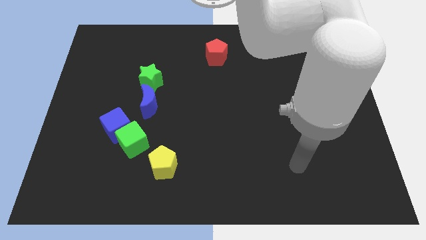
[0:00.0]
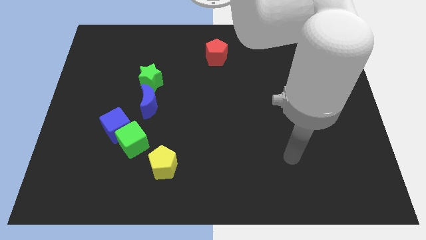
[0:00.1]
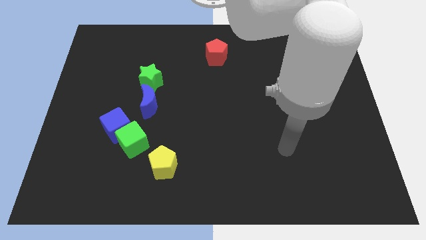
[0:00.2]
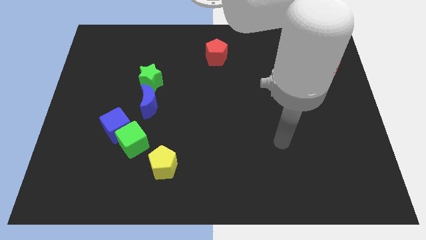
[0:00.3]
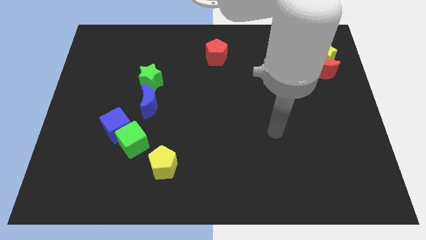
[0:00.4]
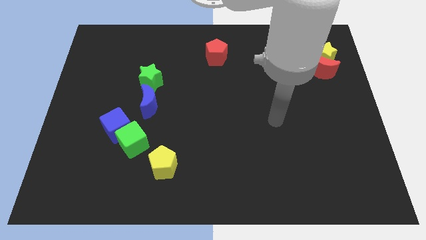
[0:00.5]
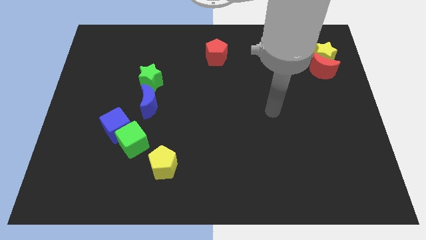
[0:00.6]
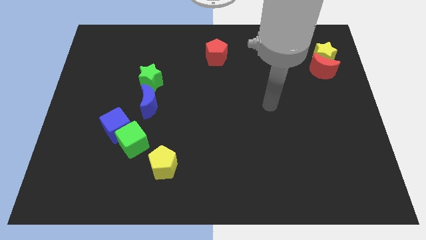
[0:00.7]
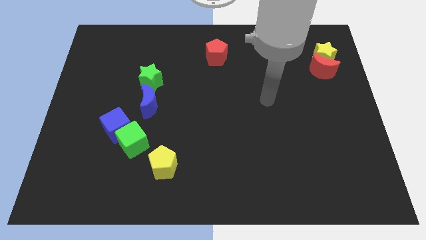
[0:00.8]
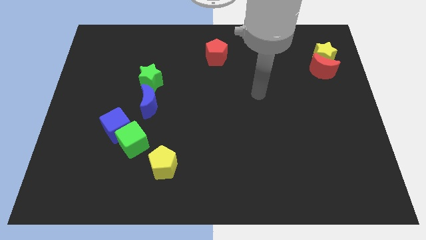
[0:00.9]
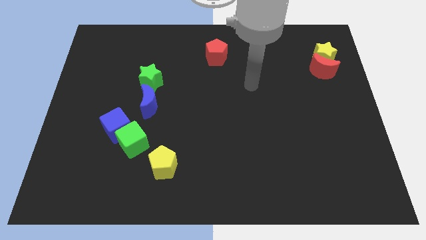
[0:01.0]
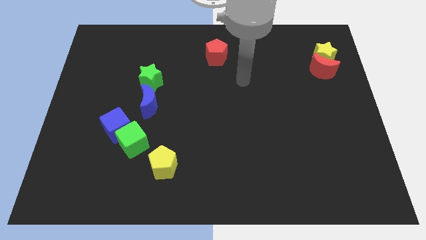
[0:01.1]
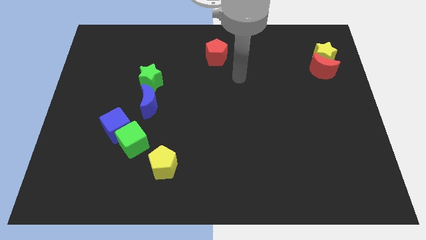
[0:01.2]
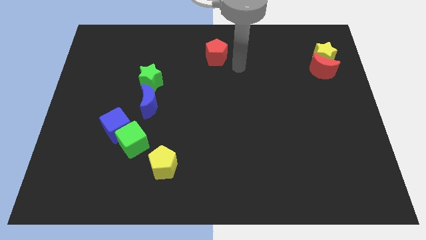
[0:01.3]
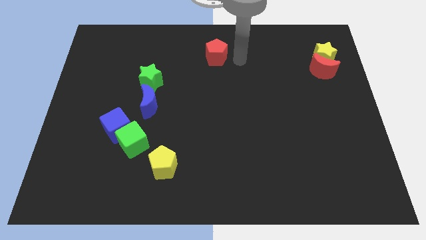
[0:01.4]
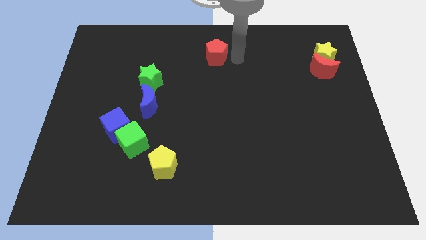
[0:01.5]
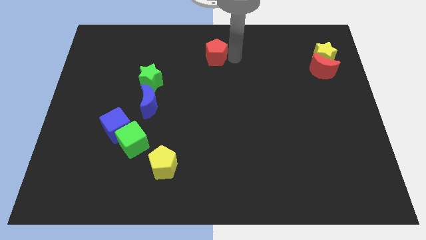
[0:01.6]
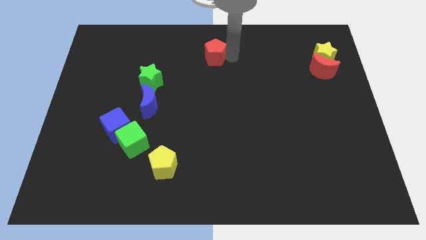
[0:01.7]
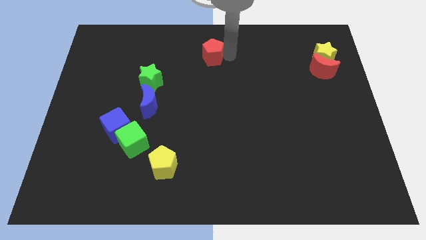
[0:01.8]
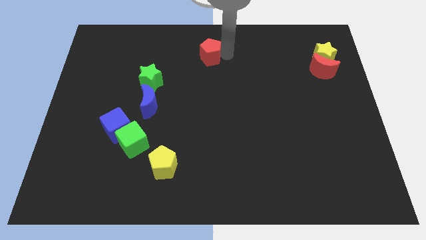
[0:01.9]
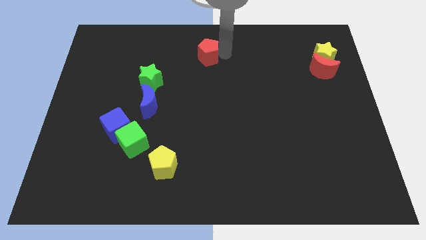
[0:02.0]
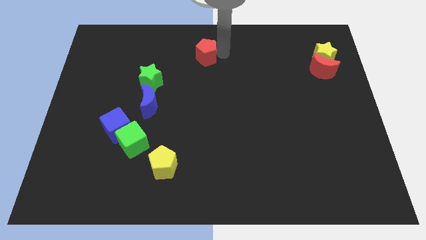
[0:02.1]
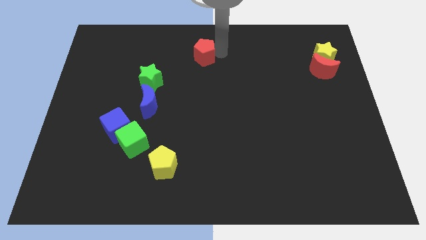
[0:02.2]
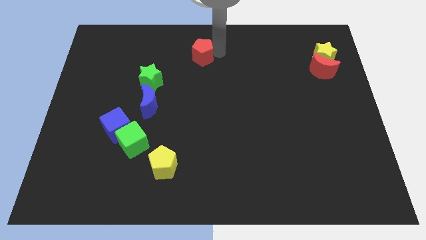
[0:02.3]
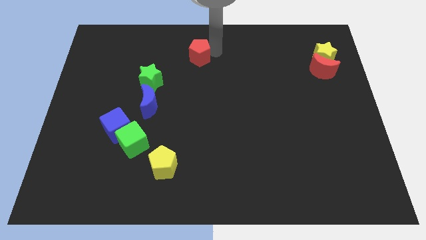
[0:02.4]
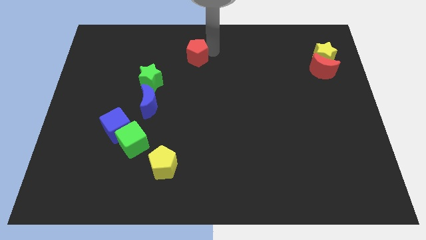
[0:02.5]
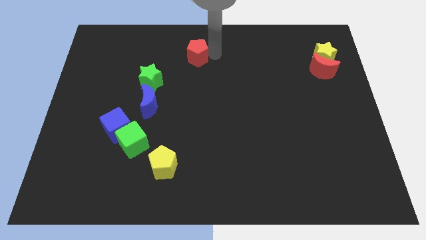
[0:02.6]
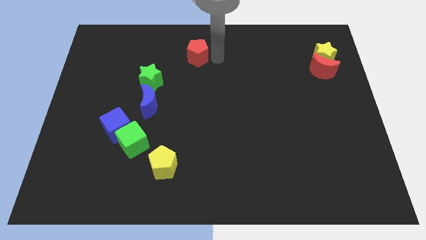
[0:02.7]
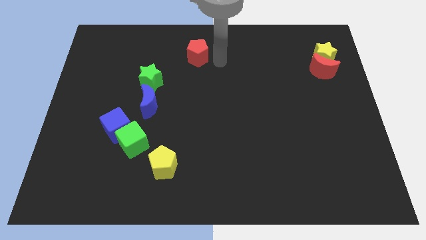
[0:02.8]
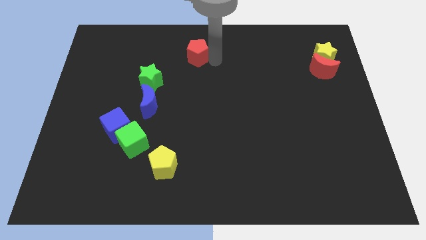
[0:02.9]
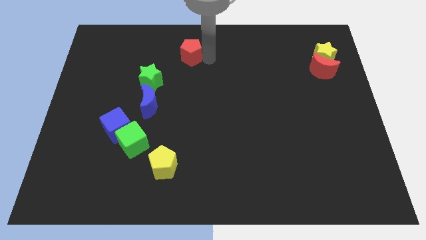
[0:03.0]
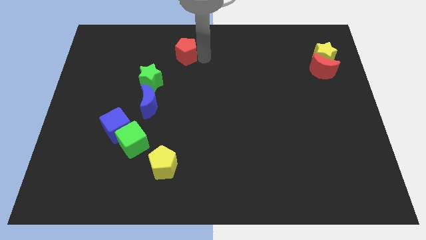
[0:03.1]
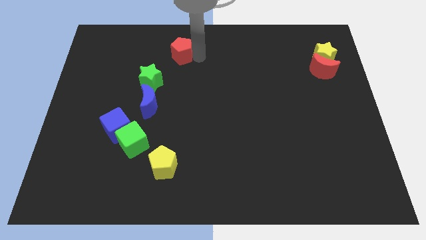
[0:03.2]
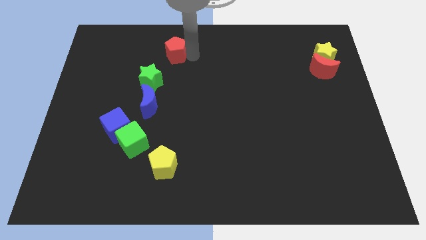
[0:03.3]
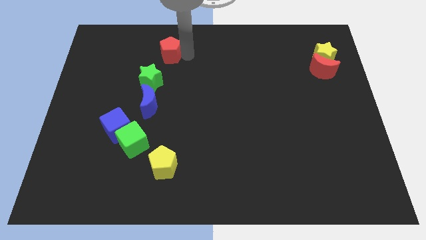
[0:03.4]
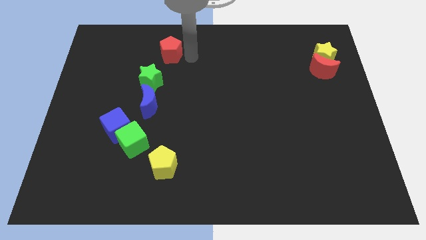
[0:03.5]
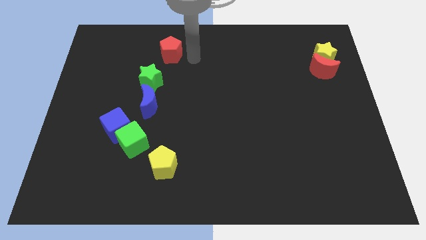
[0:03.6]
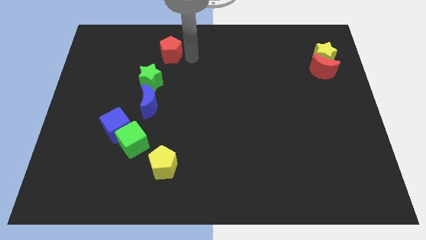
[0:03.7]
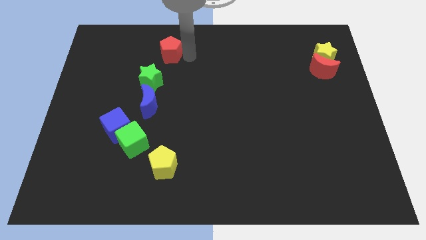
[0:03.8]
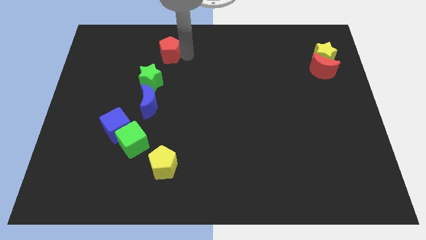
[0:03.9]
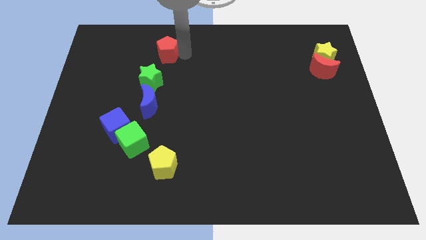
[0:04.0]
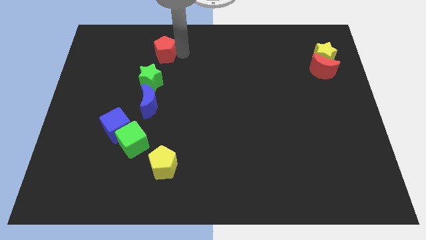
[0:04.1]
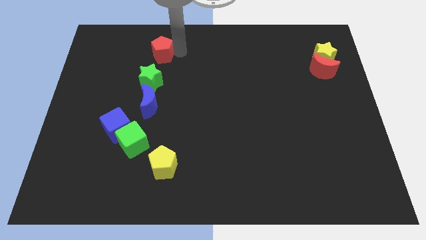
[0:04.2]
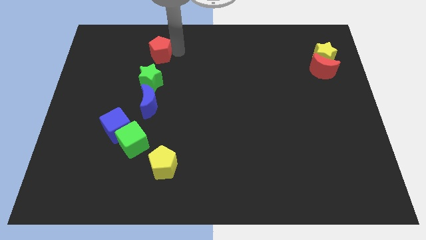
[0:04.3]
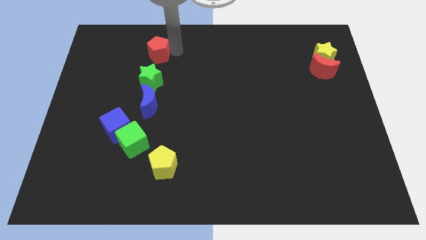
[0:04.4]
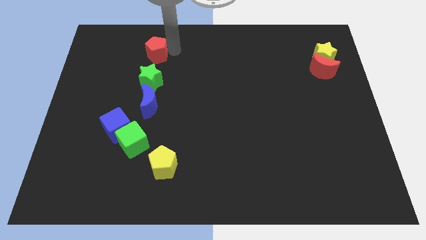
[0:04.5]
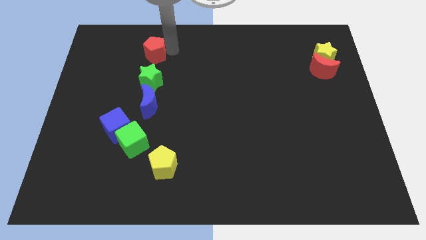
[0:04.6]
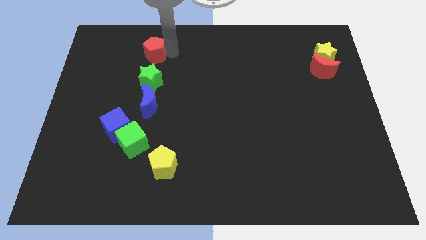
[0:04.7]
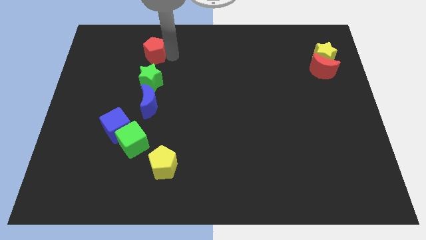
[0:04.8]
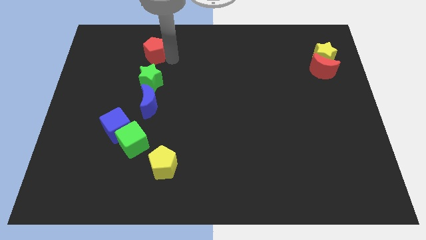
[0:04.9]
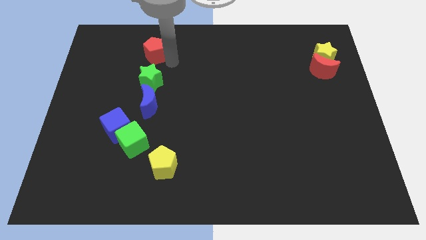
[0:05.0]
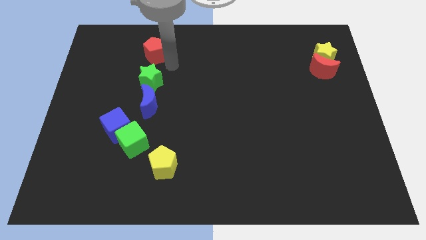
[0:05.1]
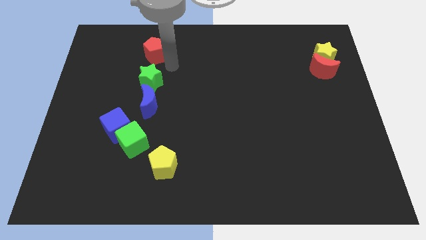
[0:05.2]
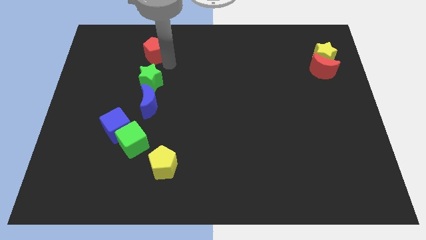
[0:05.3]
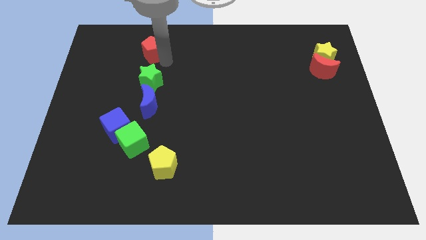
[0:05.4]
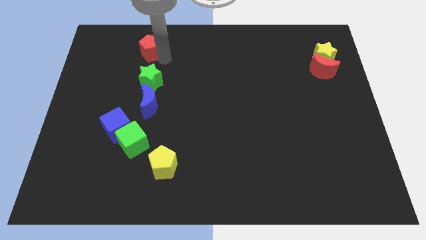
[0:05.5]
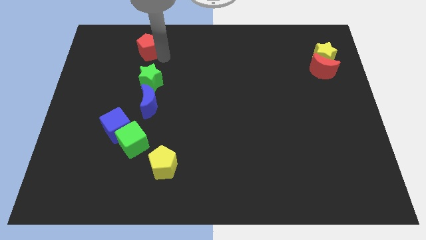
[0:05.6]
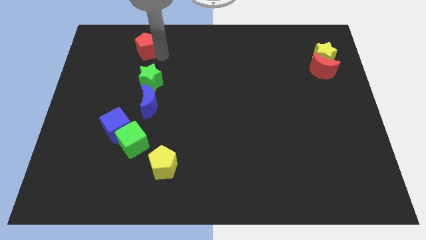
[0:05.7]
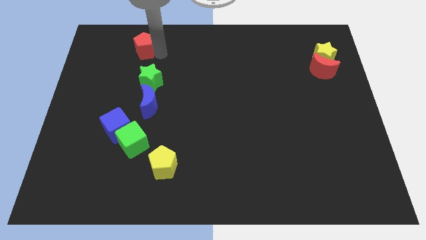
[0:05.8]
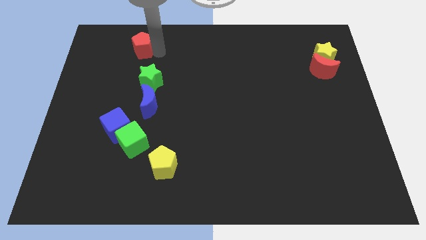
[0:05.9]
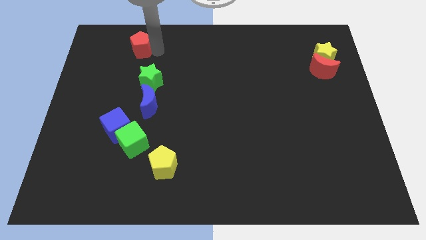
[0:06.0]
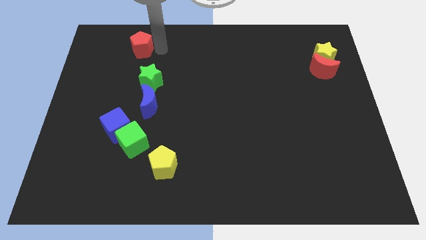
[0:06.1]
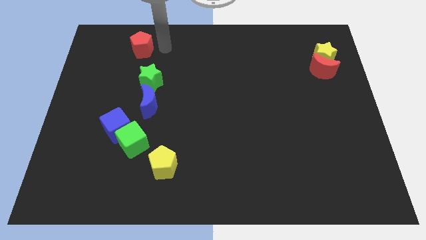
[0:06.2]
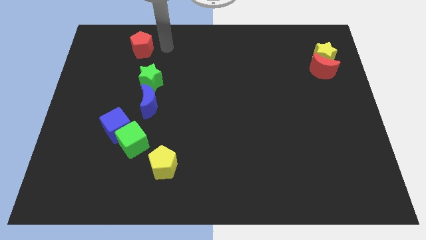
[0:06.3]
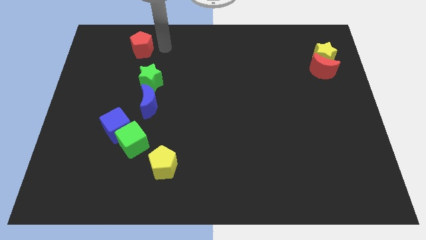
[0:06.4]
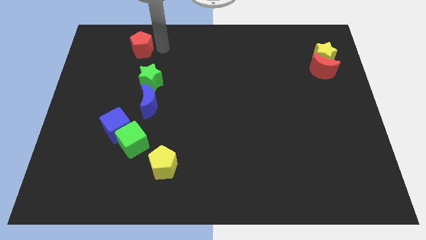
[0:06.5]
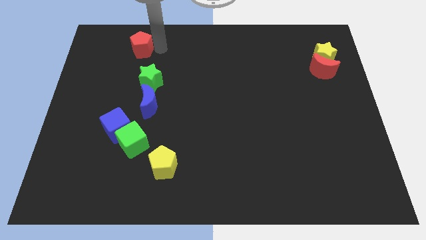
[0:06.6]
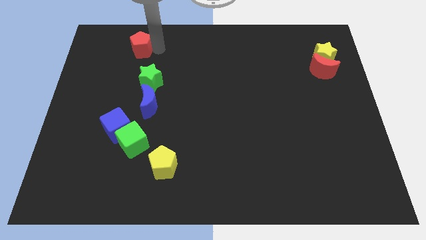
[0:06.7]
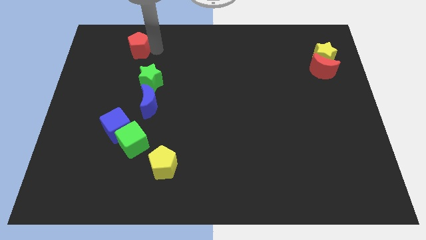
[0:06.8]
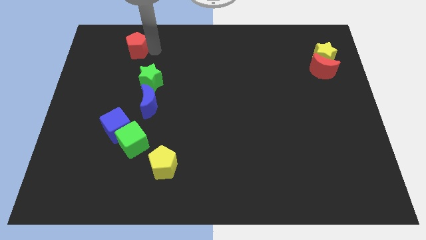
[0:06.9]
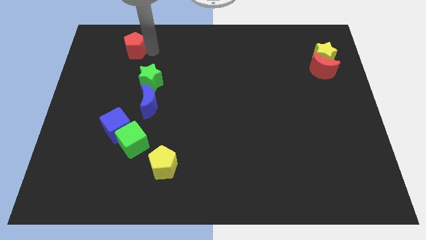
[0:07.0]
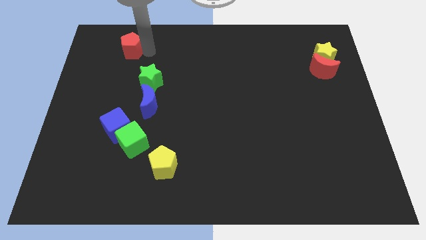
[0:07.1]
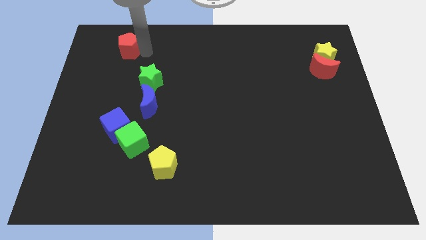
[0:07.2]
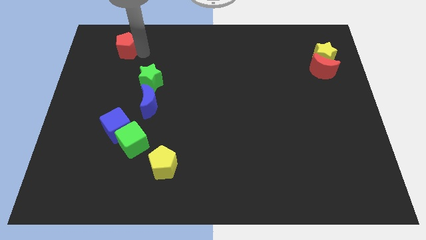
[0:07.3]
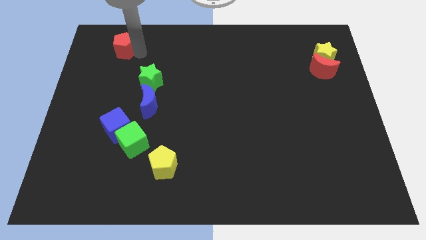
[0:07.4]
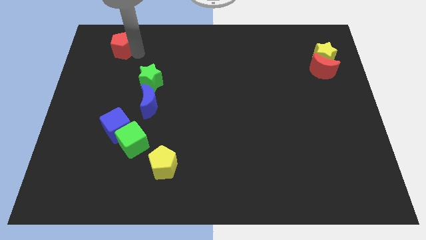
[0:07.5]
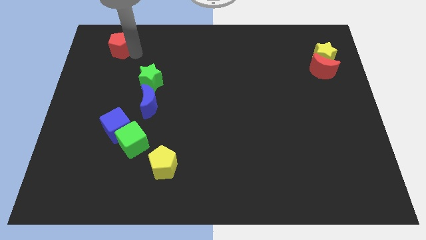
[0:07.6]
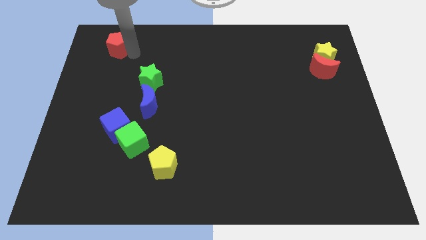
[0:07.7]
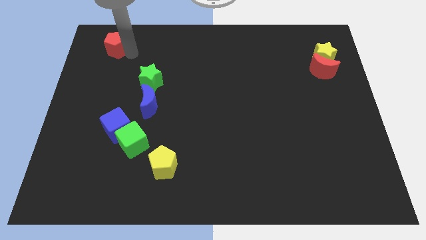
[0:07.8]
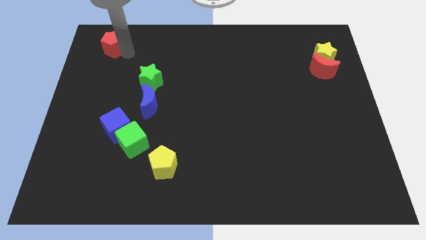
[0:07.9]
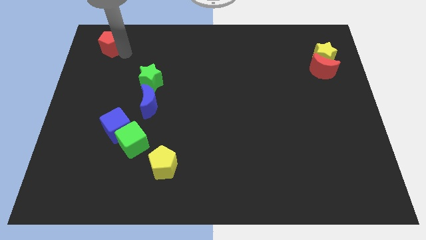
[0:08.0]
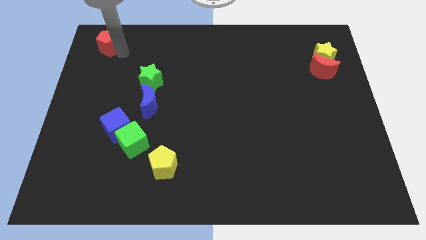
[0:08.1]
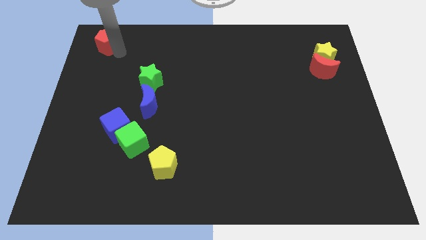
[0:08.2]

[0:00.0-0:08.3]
push the red pentagon to the upper left corner
